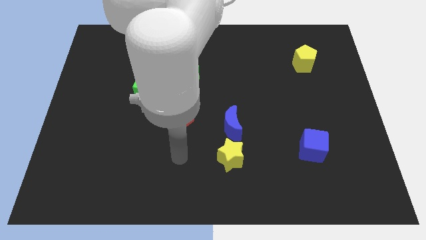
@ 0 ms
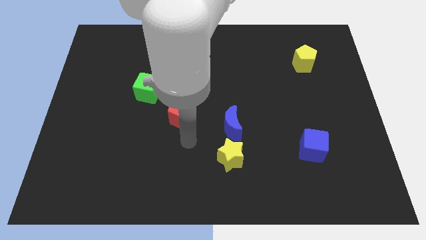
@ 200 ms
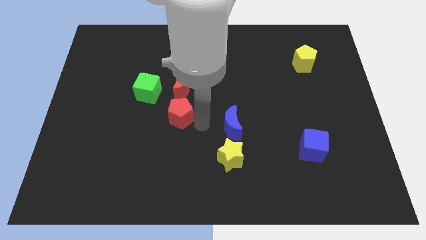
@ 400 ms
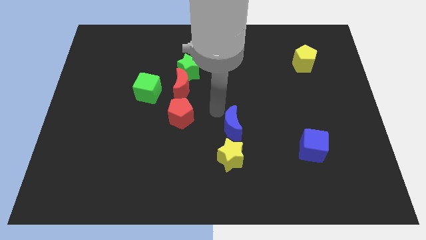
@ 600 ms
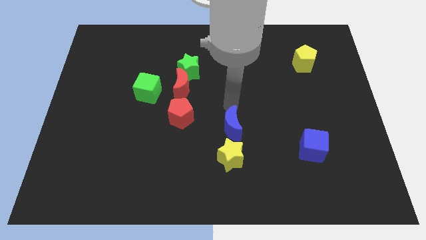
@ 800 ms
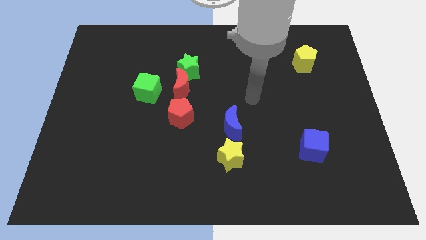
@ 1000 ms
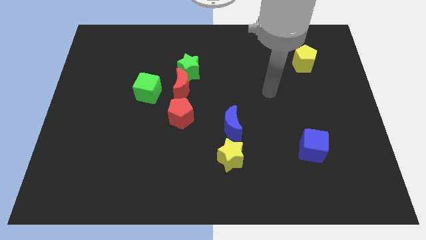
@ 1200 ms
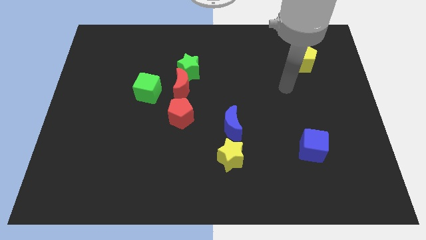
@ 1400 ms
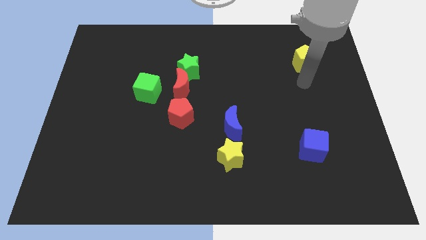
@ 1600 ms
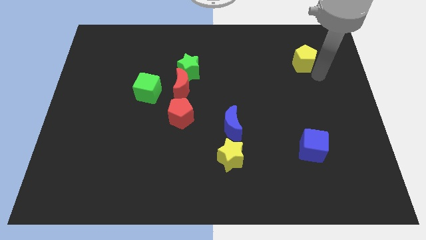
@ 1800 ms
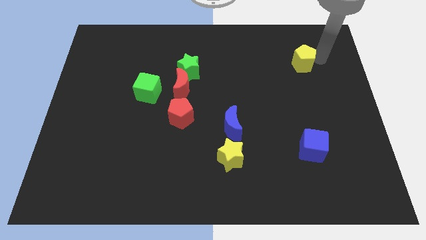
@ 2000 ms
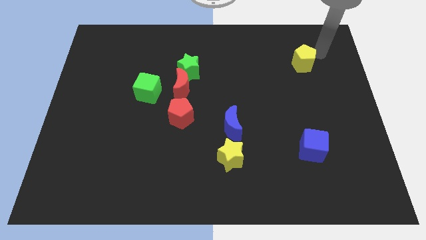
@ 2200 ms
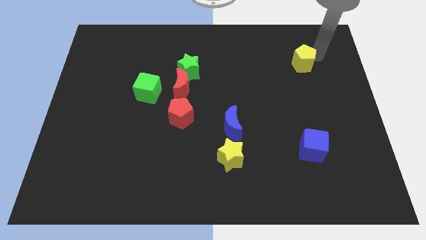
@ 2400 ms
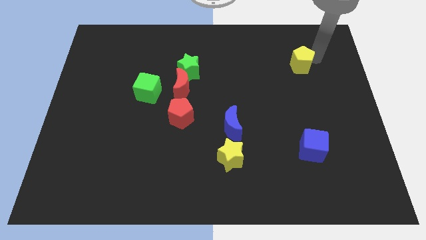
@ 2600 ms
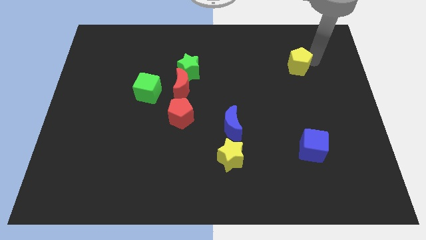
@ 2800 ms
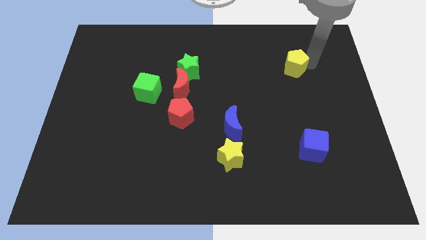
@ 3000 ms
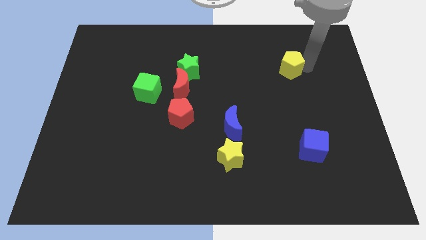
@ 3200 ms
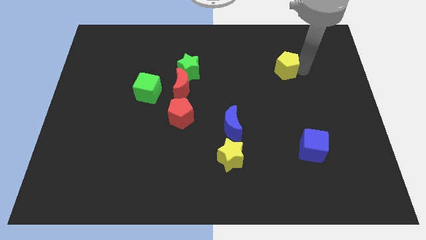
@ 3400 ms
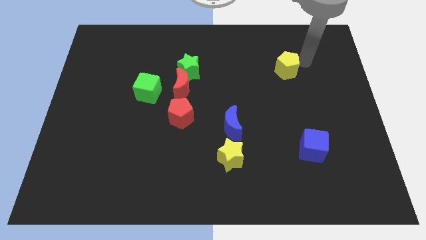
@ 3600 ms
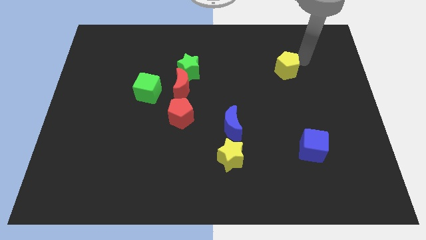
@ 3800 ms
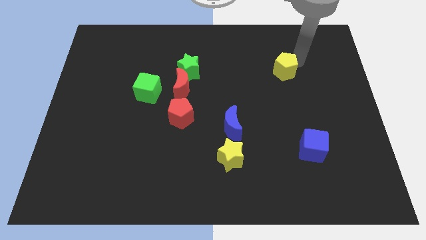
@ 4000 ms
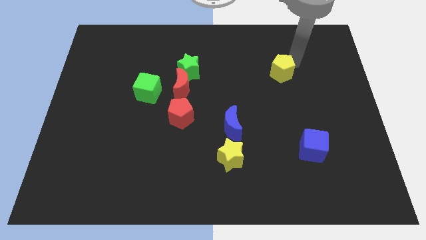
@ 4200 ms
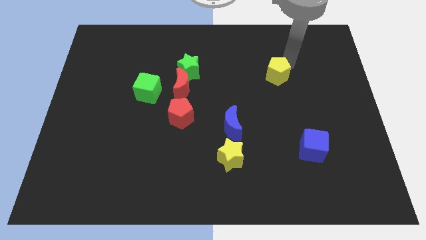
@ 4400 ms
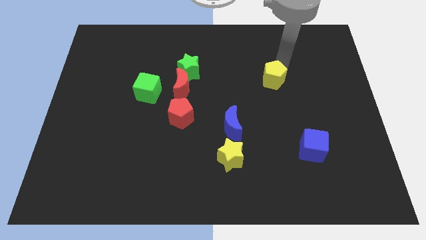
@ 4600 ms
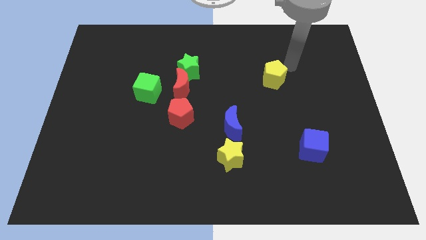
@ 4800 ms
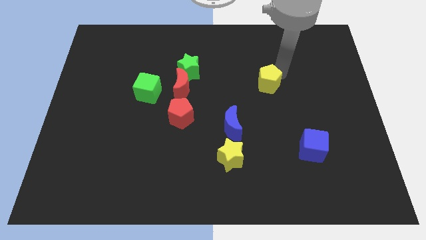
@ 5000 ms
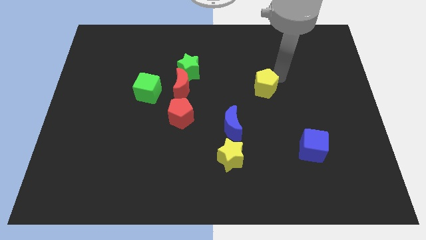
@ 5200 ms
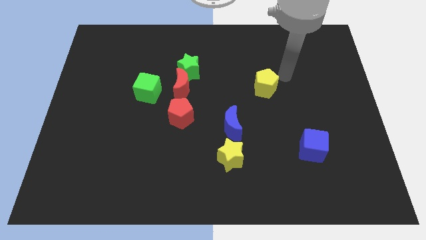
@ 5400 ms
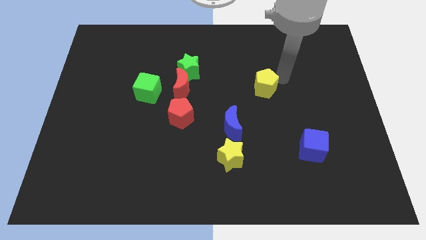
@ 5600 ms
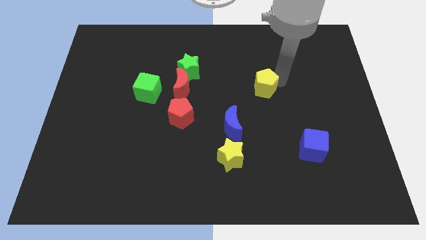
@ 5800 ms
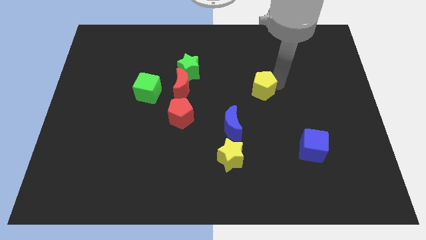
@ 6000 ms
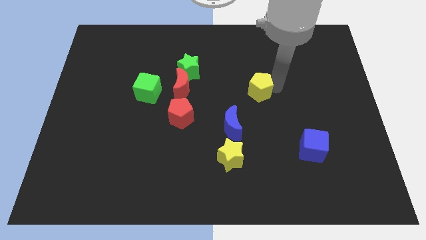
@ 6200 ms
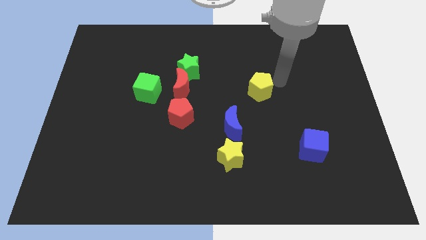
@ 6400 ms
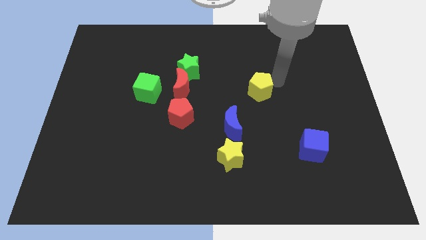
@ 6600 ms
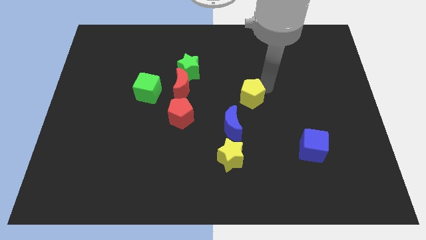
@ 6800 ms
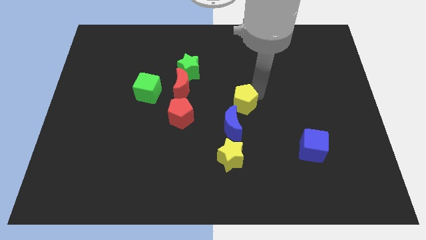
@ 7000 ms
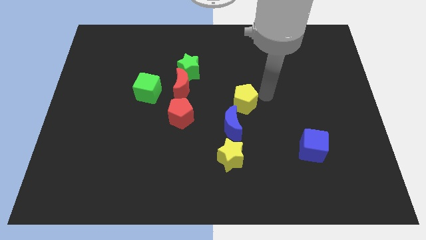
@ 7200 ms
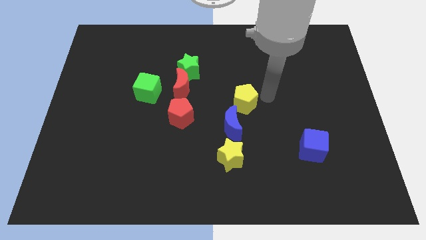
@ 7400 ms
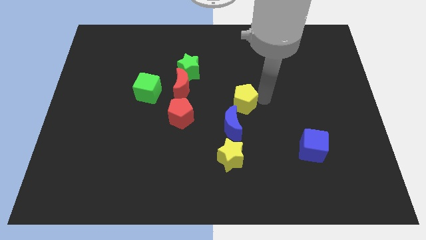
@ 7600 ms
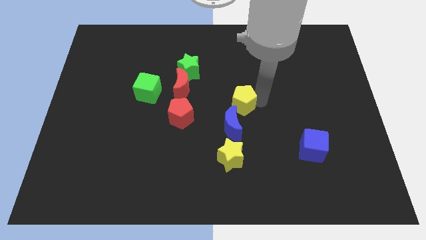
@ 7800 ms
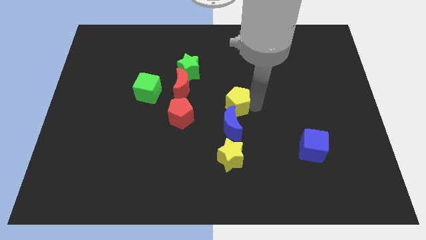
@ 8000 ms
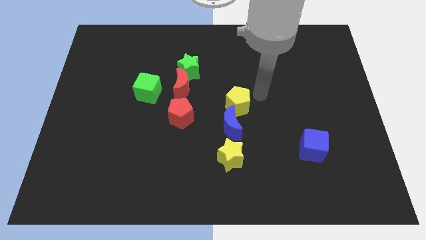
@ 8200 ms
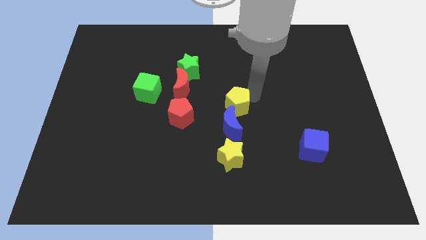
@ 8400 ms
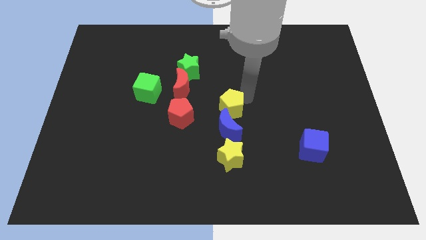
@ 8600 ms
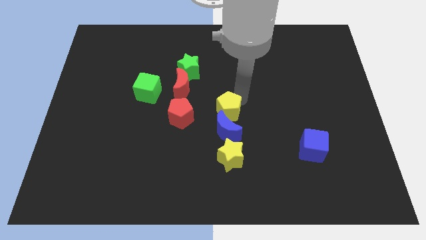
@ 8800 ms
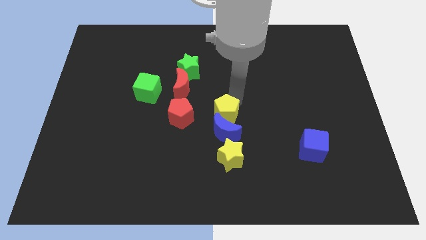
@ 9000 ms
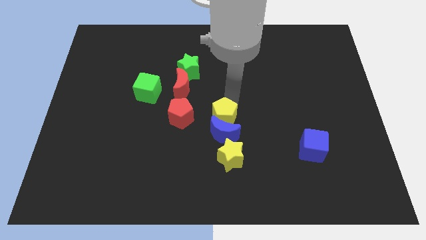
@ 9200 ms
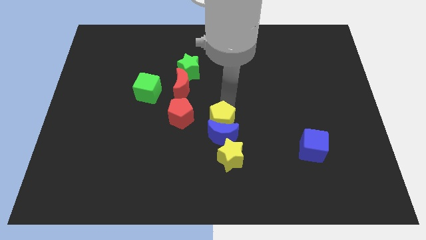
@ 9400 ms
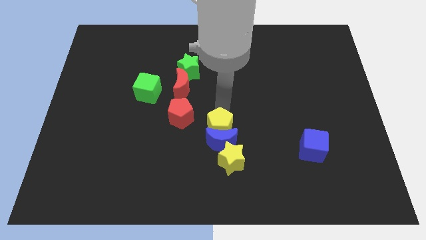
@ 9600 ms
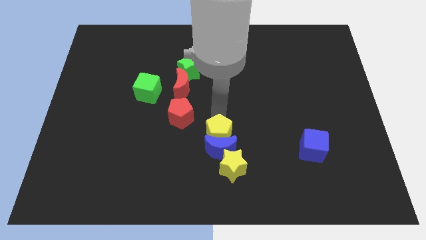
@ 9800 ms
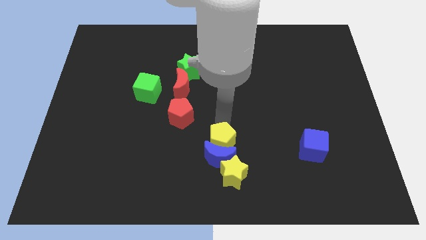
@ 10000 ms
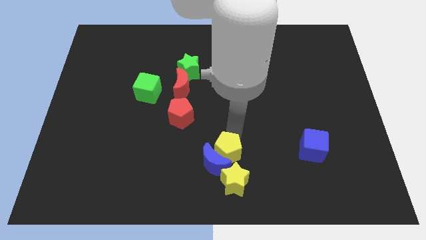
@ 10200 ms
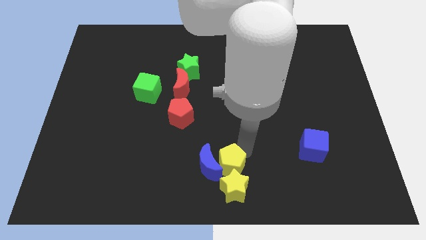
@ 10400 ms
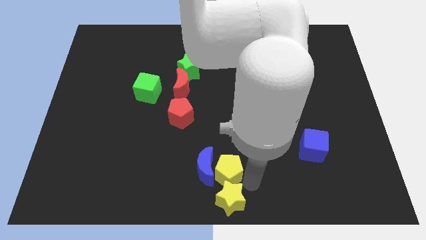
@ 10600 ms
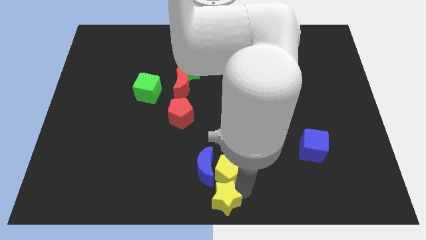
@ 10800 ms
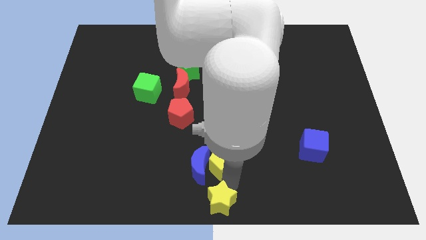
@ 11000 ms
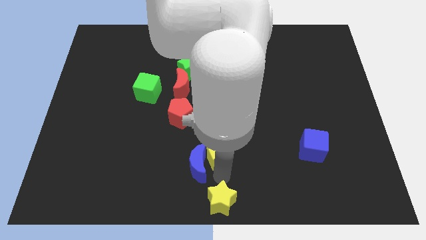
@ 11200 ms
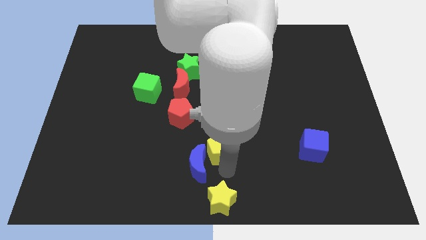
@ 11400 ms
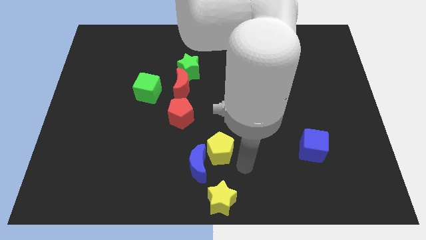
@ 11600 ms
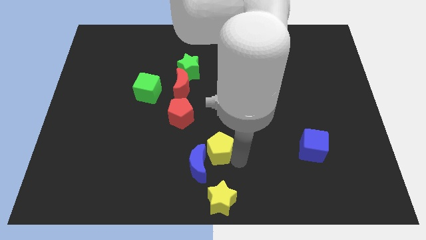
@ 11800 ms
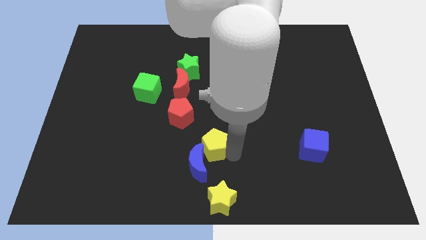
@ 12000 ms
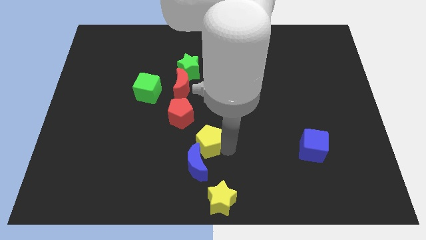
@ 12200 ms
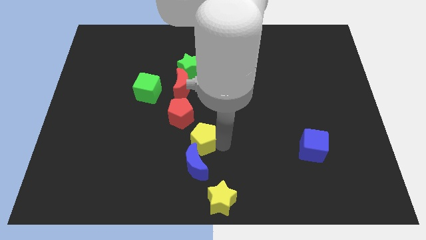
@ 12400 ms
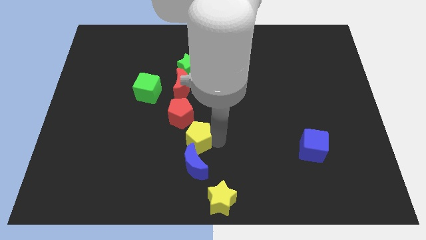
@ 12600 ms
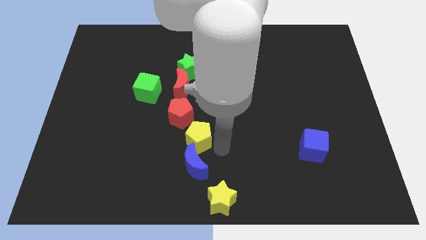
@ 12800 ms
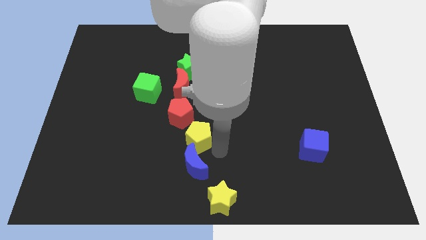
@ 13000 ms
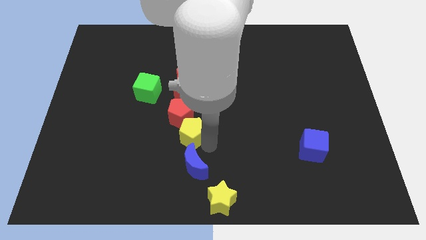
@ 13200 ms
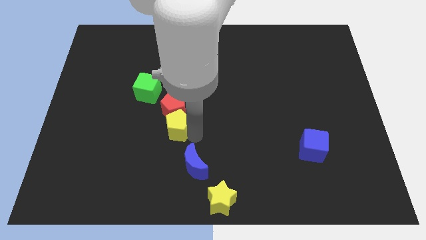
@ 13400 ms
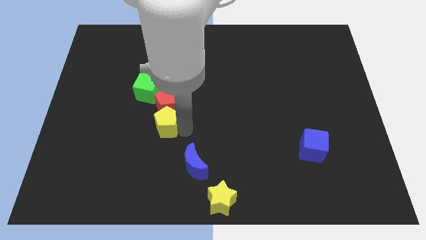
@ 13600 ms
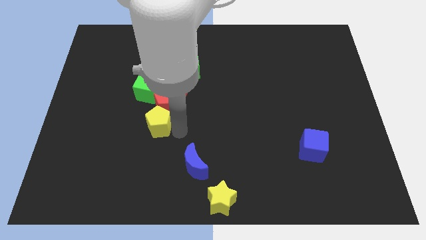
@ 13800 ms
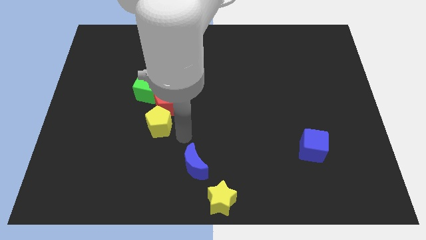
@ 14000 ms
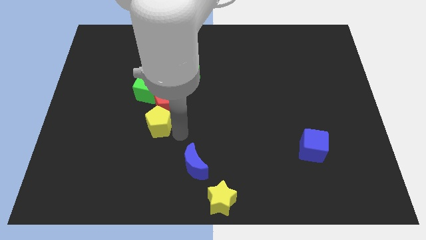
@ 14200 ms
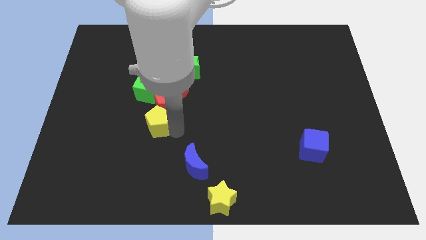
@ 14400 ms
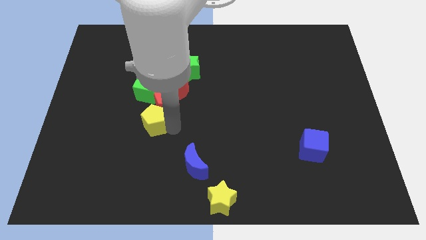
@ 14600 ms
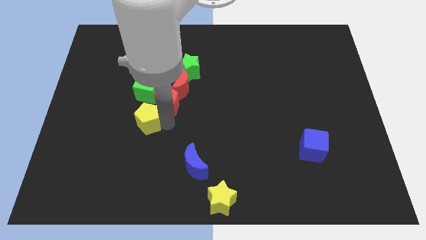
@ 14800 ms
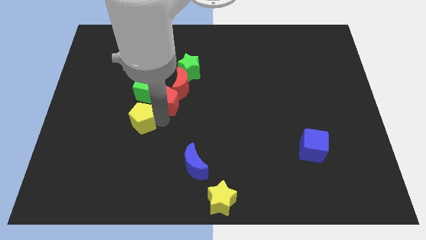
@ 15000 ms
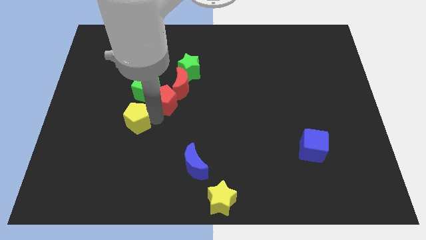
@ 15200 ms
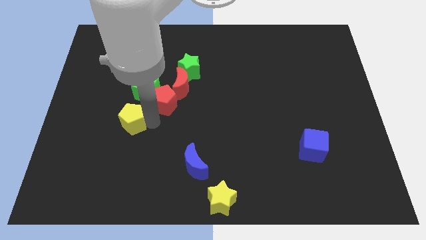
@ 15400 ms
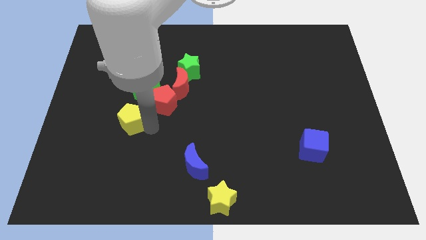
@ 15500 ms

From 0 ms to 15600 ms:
move the yellow pentagon to the bottom left side of the green cube
